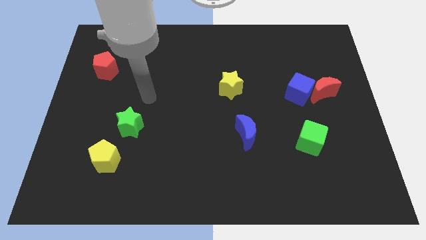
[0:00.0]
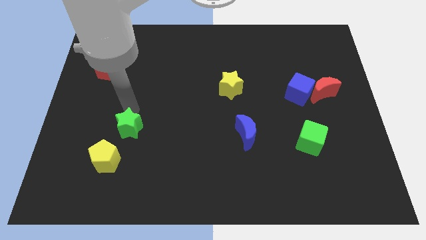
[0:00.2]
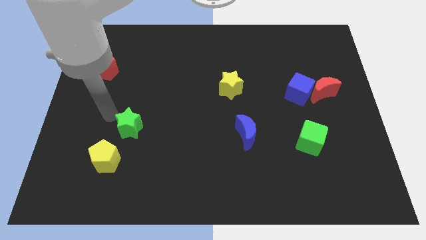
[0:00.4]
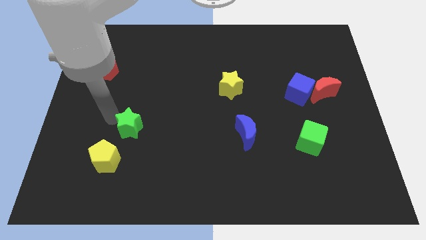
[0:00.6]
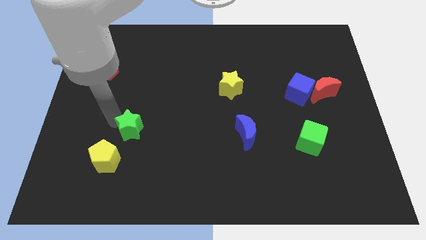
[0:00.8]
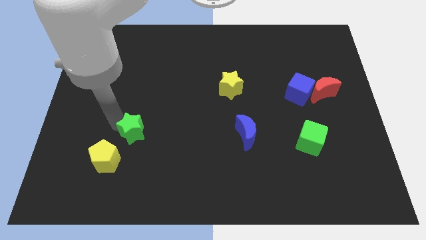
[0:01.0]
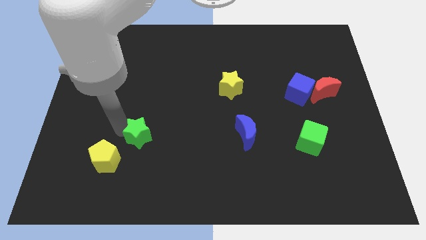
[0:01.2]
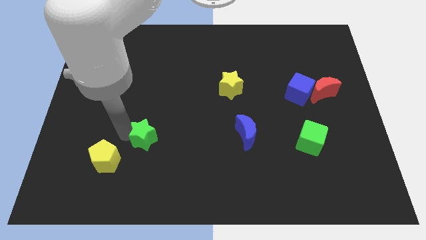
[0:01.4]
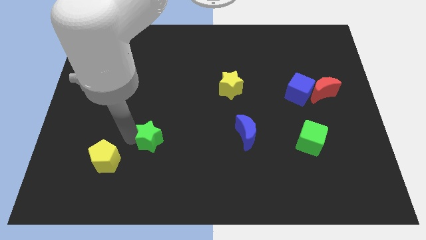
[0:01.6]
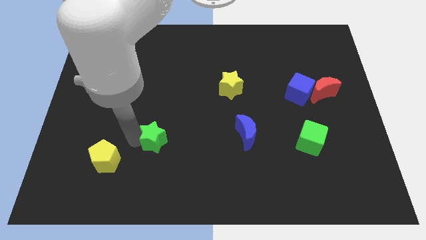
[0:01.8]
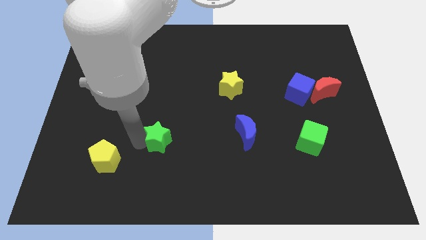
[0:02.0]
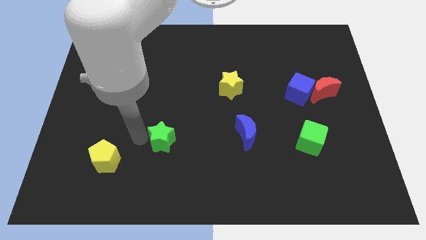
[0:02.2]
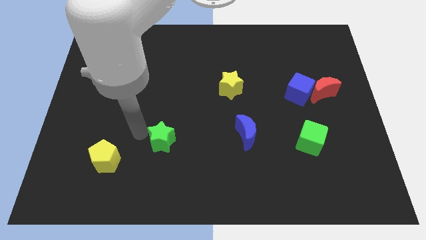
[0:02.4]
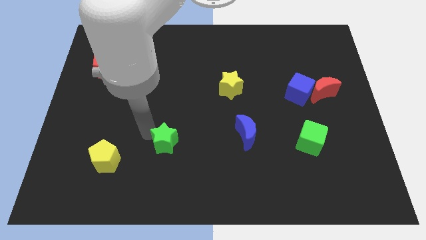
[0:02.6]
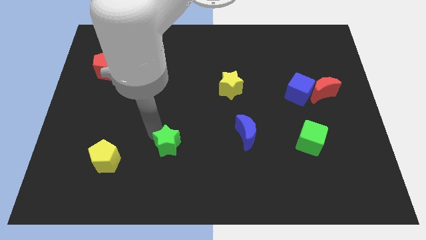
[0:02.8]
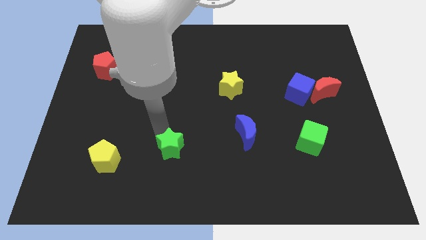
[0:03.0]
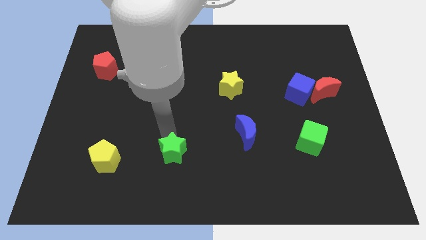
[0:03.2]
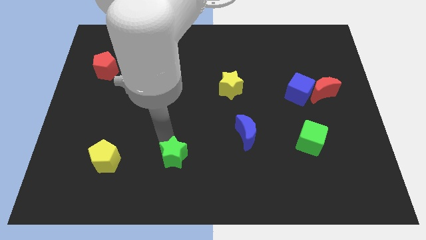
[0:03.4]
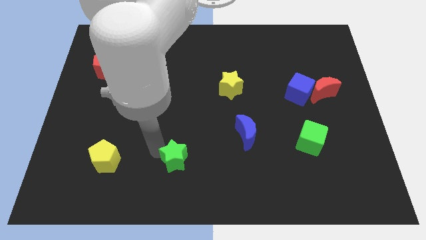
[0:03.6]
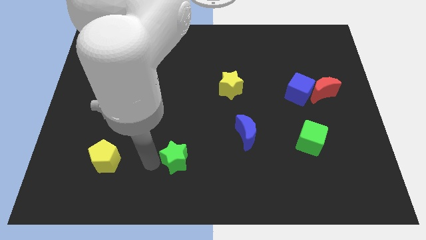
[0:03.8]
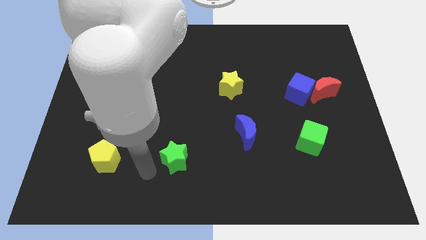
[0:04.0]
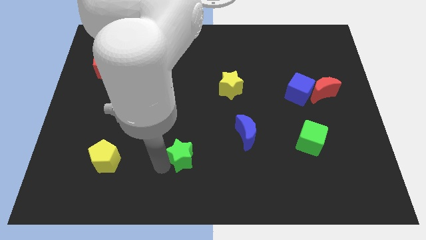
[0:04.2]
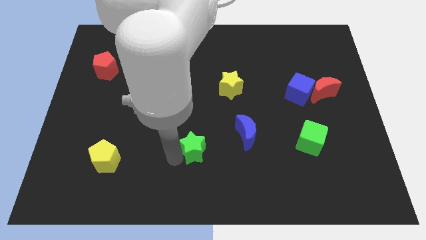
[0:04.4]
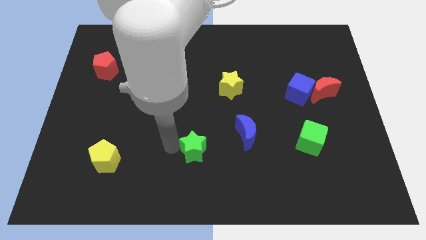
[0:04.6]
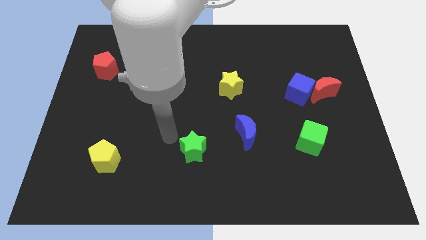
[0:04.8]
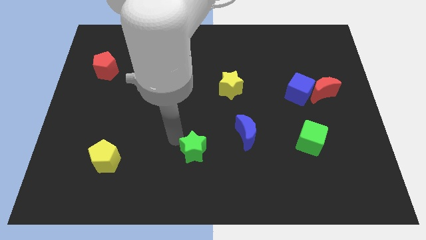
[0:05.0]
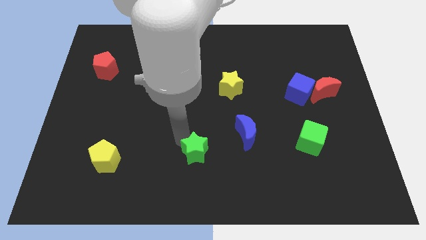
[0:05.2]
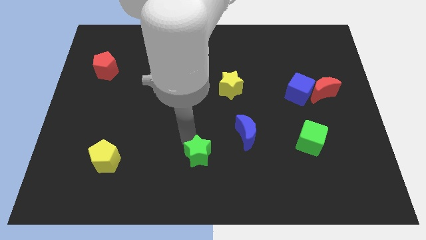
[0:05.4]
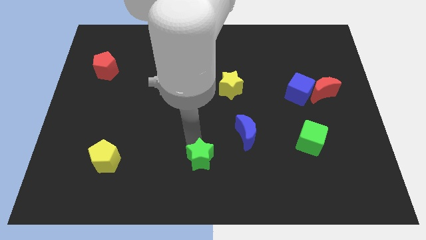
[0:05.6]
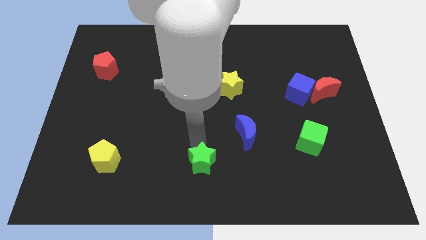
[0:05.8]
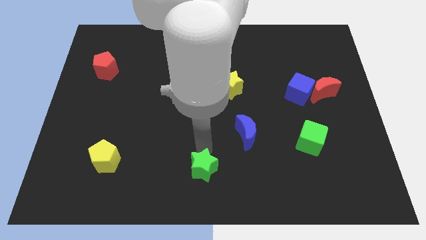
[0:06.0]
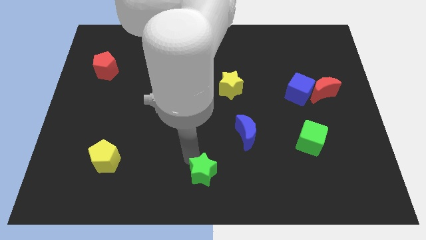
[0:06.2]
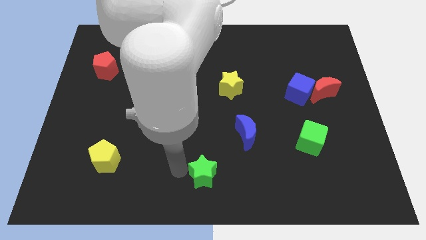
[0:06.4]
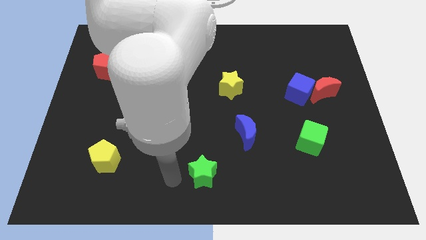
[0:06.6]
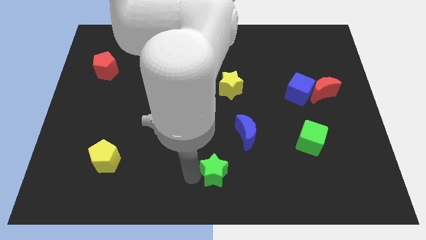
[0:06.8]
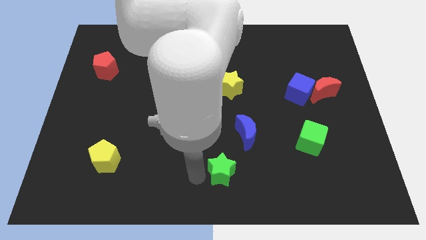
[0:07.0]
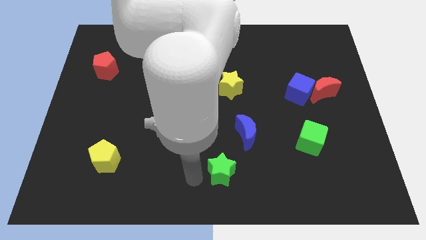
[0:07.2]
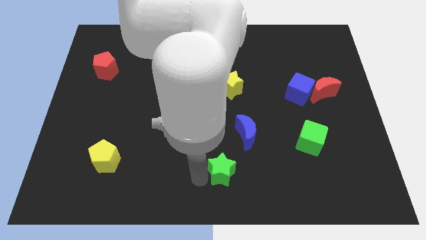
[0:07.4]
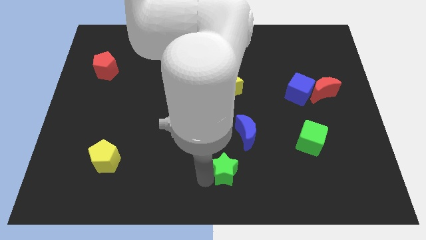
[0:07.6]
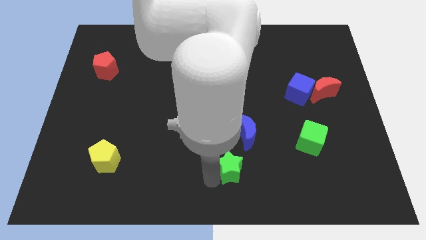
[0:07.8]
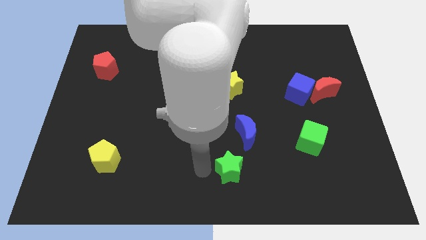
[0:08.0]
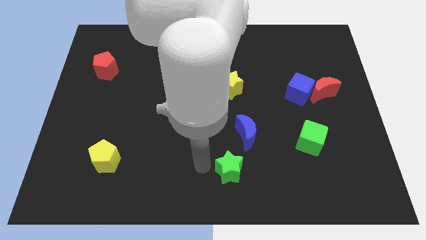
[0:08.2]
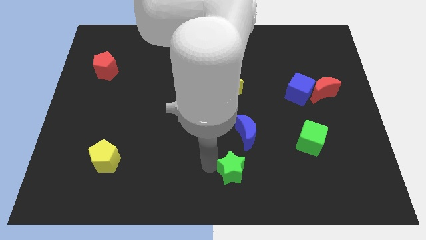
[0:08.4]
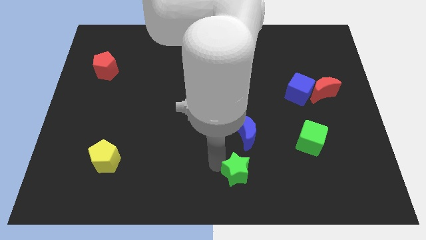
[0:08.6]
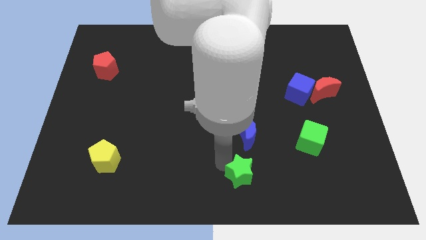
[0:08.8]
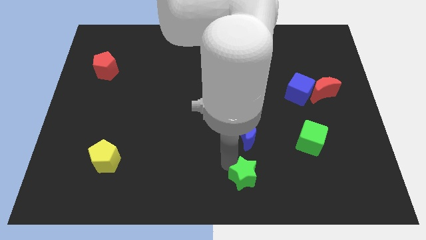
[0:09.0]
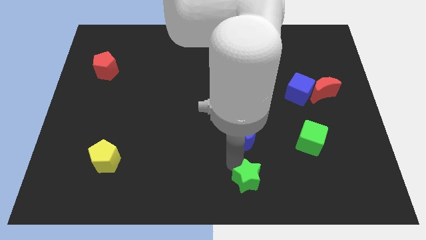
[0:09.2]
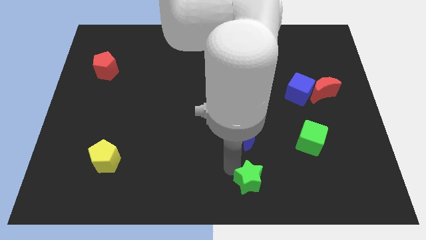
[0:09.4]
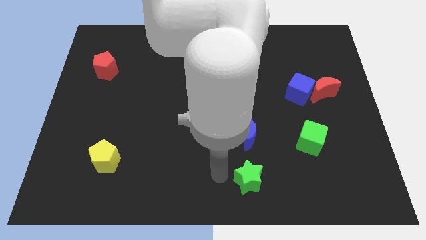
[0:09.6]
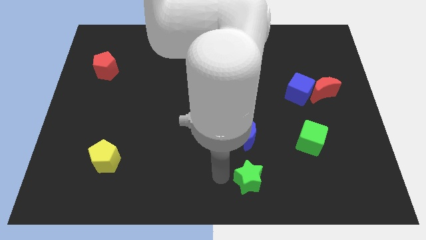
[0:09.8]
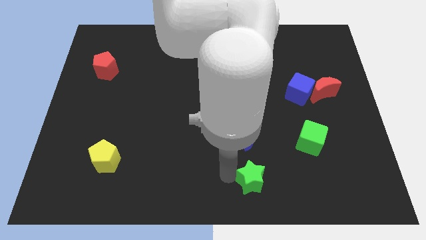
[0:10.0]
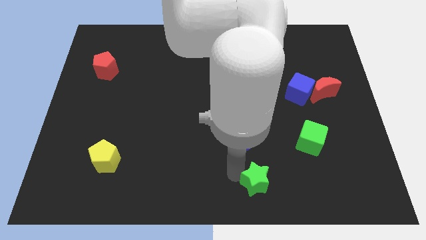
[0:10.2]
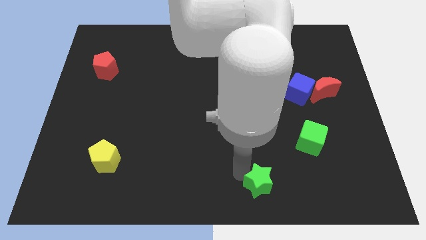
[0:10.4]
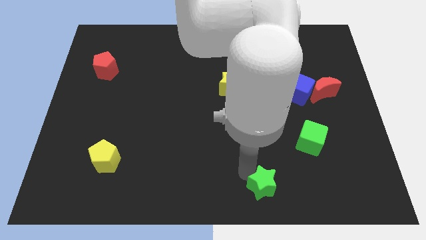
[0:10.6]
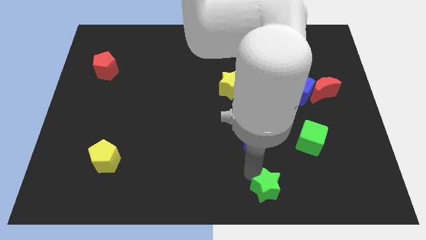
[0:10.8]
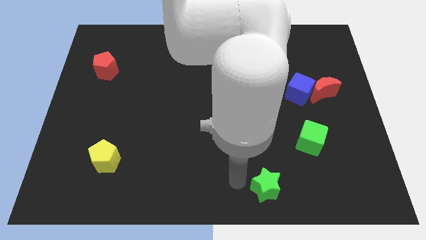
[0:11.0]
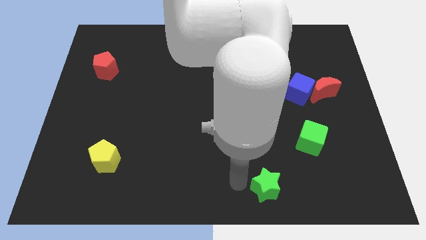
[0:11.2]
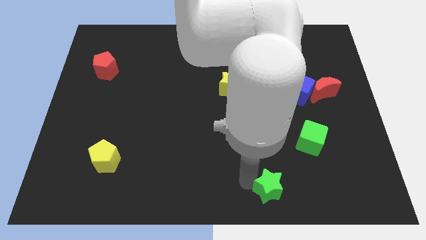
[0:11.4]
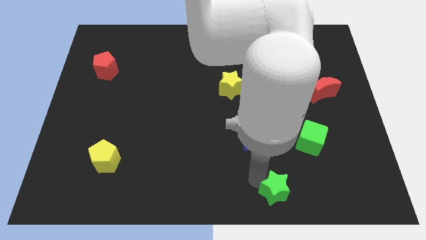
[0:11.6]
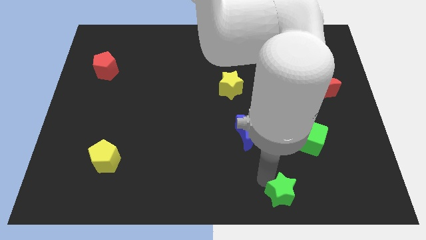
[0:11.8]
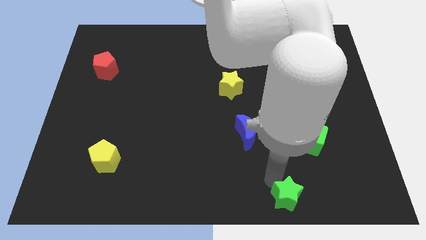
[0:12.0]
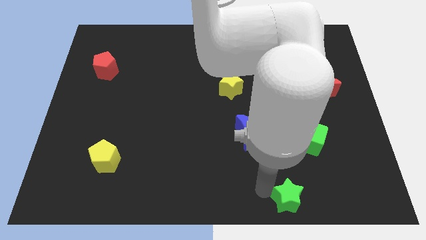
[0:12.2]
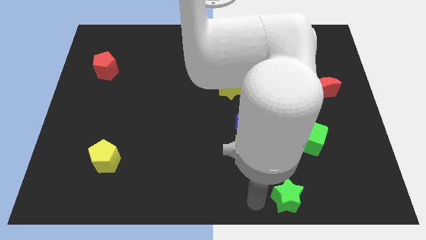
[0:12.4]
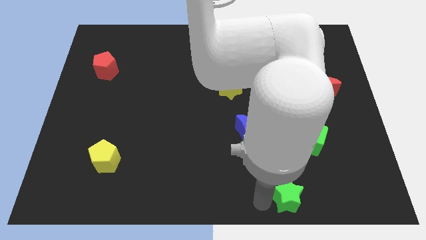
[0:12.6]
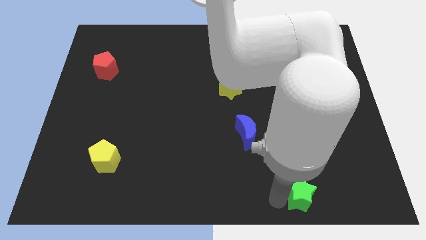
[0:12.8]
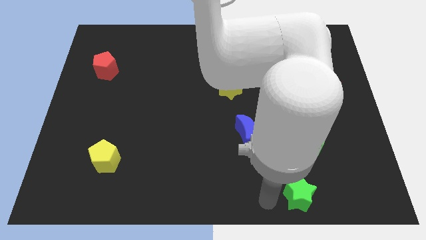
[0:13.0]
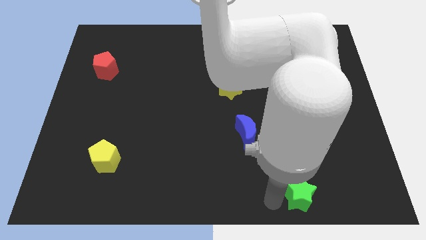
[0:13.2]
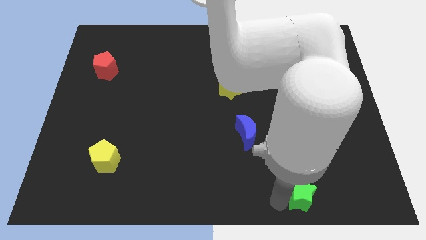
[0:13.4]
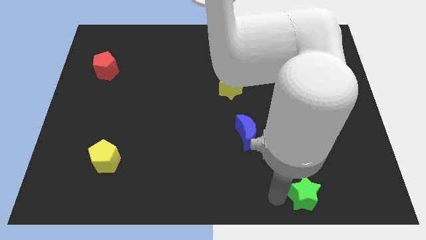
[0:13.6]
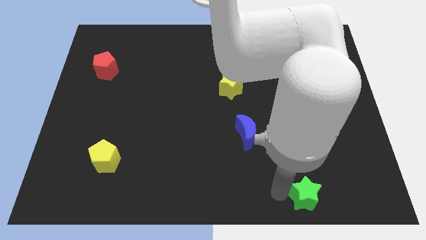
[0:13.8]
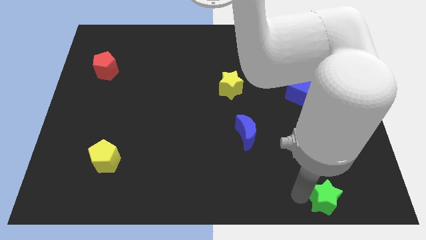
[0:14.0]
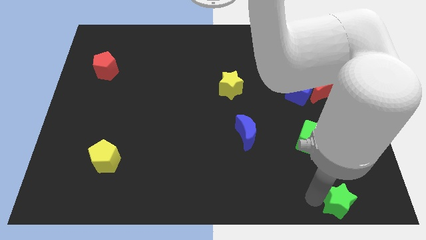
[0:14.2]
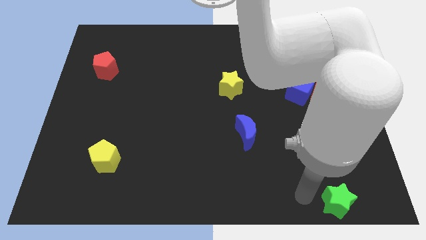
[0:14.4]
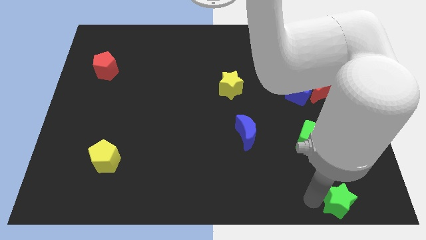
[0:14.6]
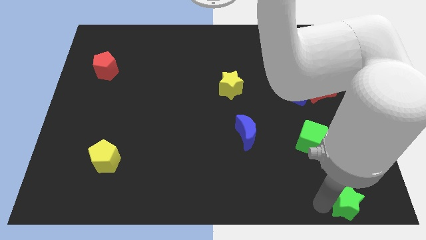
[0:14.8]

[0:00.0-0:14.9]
put the green star to the bottom right of the board
